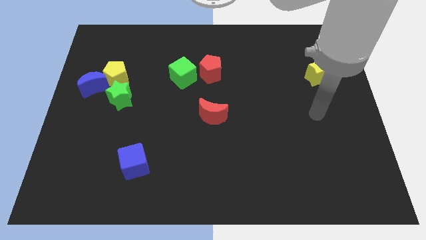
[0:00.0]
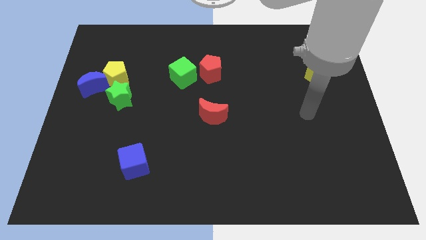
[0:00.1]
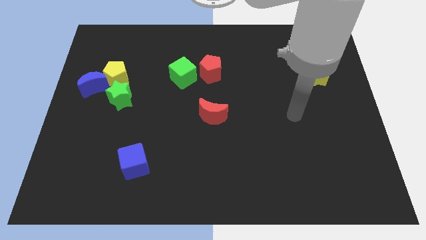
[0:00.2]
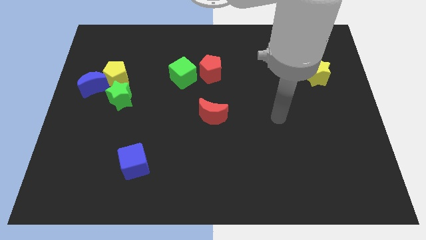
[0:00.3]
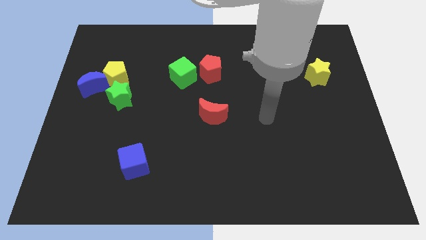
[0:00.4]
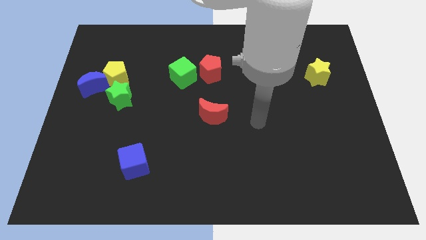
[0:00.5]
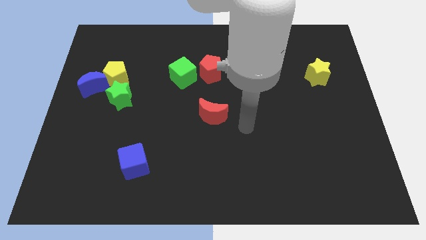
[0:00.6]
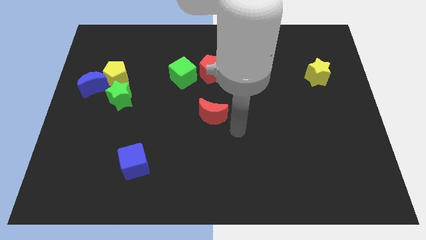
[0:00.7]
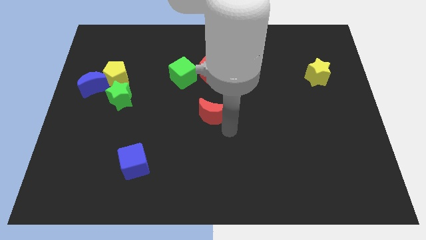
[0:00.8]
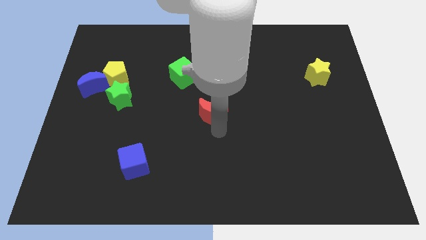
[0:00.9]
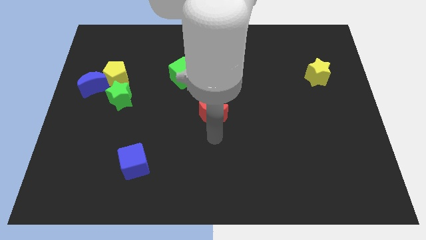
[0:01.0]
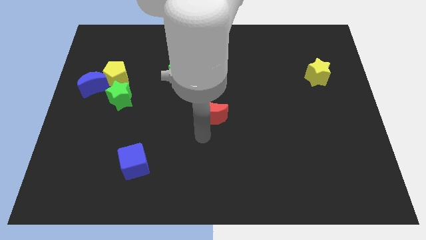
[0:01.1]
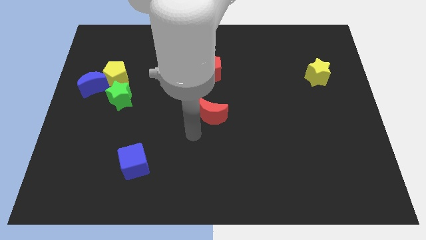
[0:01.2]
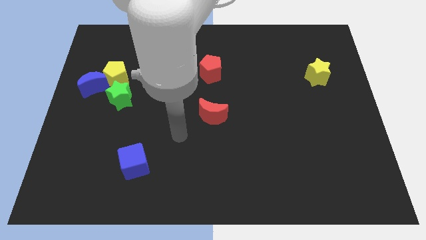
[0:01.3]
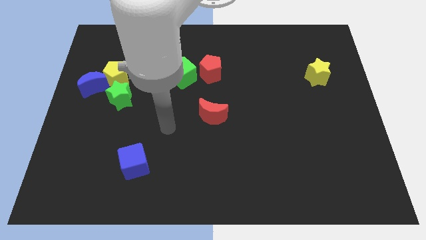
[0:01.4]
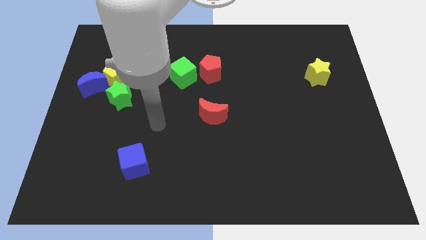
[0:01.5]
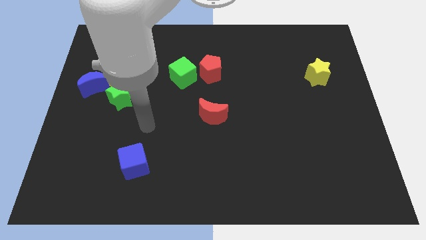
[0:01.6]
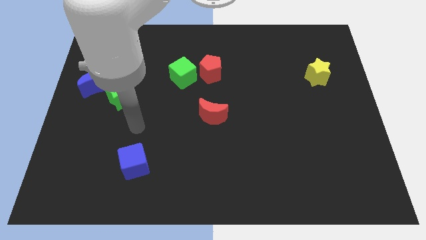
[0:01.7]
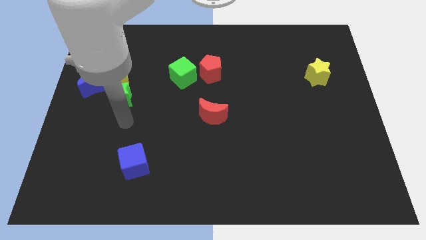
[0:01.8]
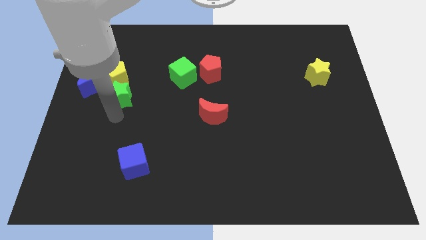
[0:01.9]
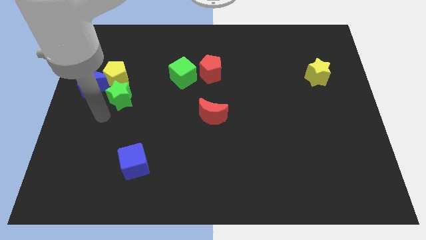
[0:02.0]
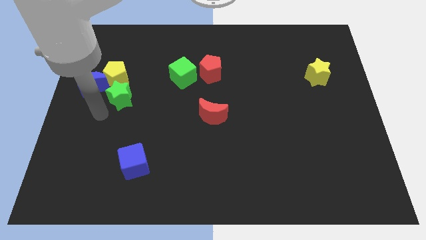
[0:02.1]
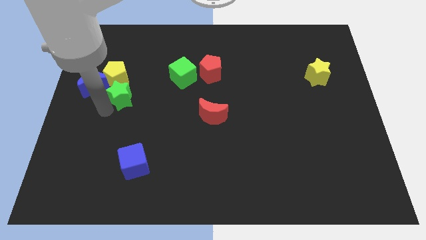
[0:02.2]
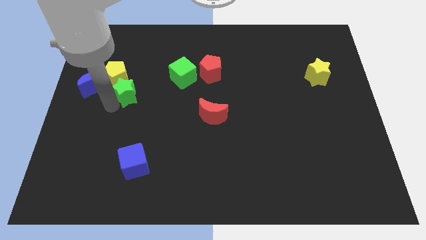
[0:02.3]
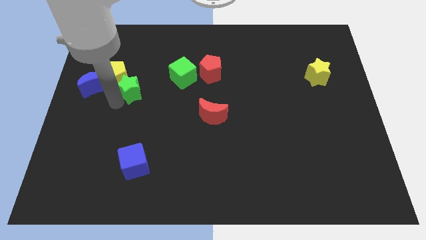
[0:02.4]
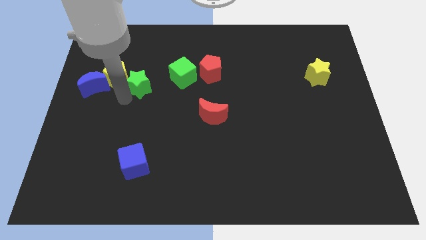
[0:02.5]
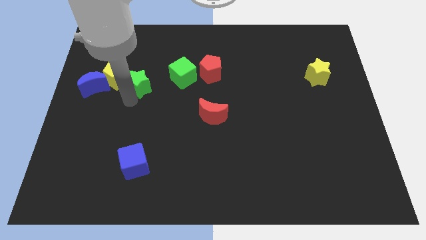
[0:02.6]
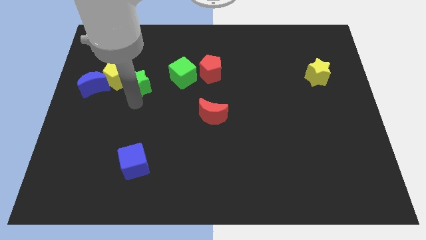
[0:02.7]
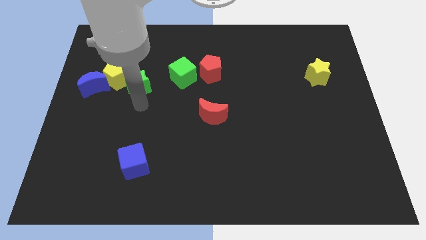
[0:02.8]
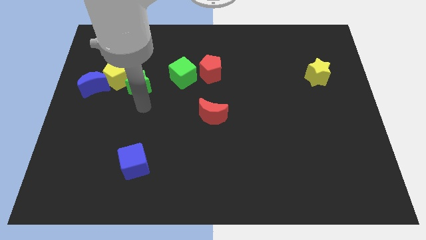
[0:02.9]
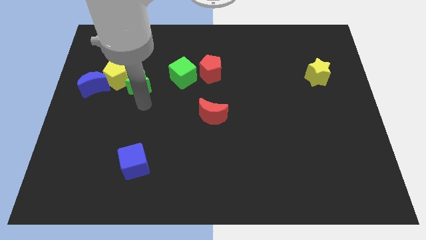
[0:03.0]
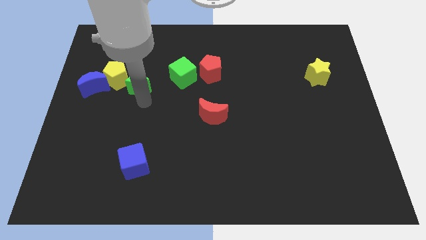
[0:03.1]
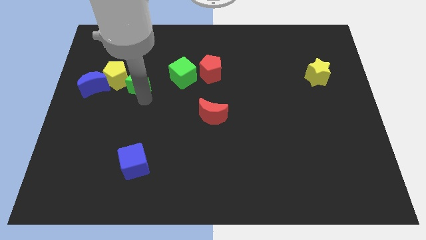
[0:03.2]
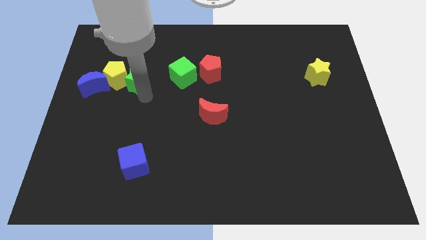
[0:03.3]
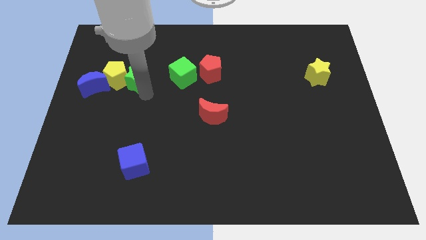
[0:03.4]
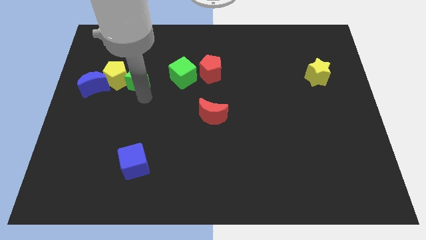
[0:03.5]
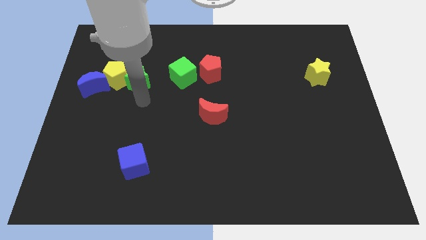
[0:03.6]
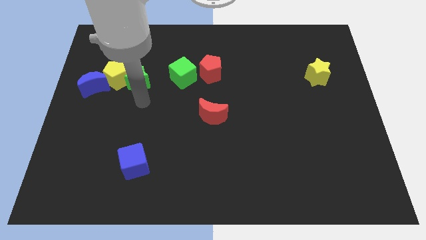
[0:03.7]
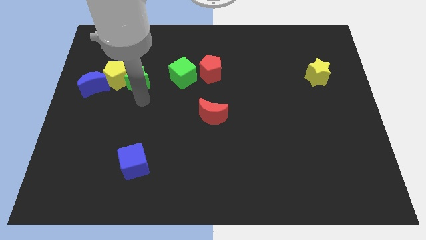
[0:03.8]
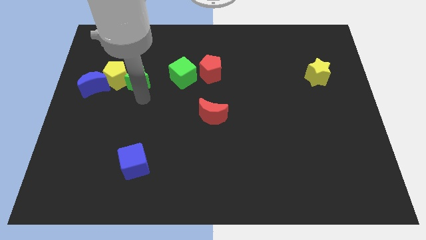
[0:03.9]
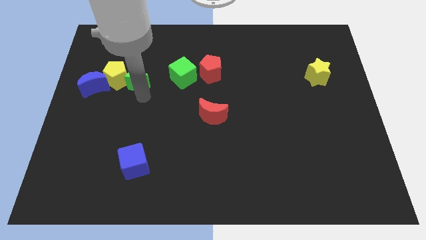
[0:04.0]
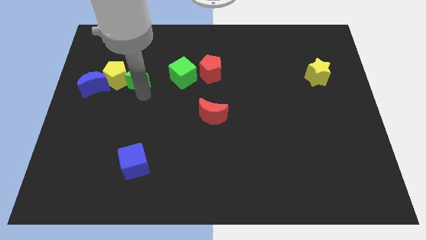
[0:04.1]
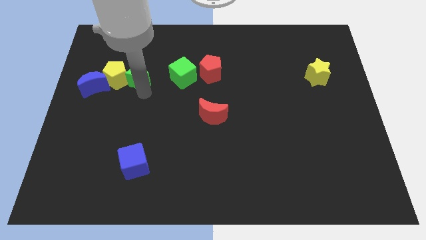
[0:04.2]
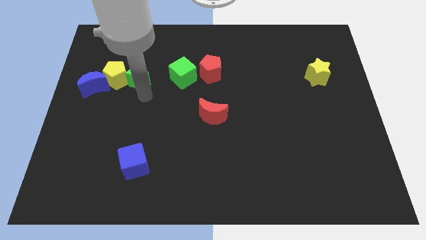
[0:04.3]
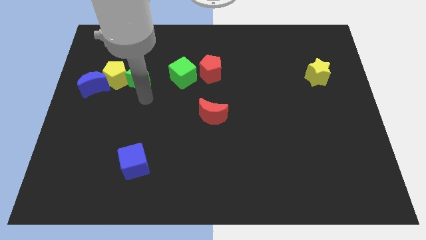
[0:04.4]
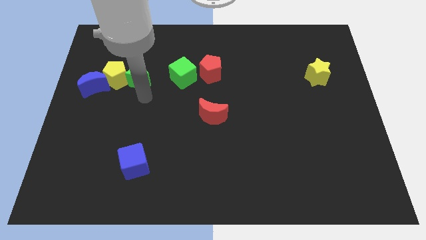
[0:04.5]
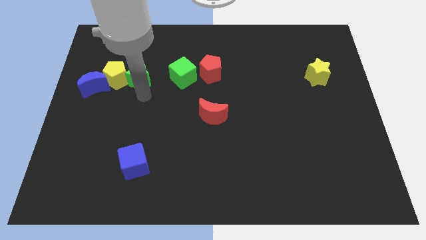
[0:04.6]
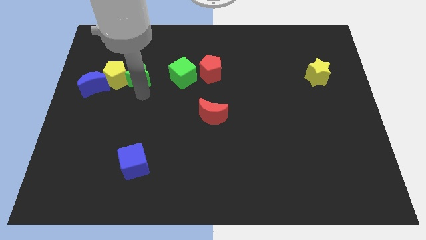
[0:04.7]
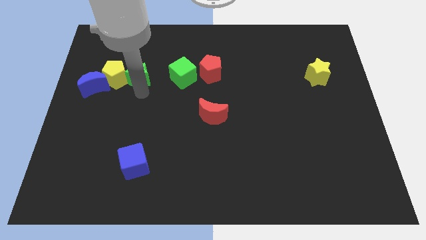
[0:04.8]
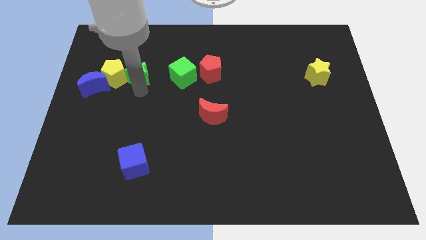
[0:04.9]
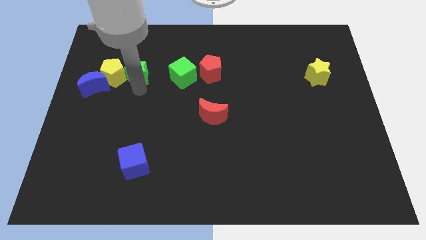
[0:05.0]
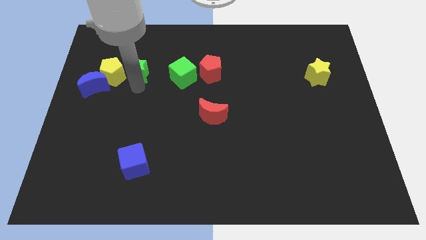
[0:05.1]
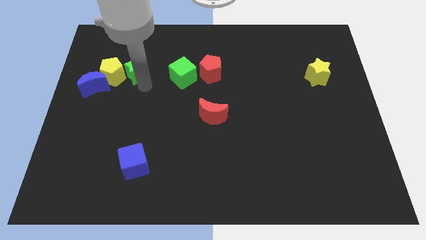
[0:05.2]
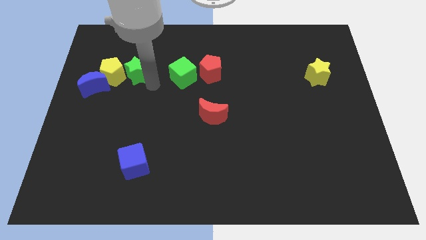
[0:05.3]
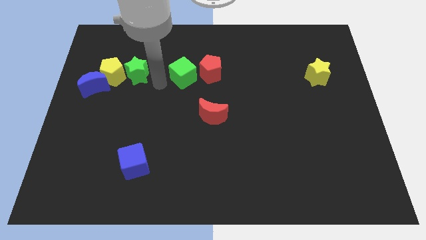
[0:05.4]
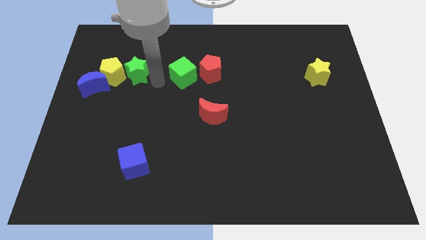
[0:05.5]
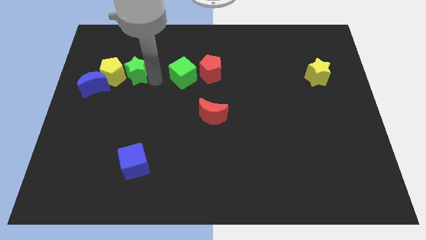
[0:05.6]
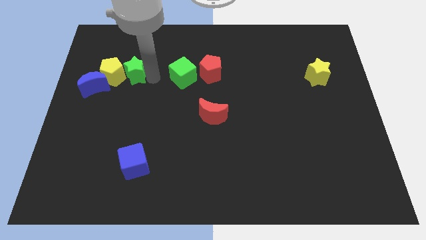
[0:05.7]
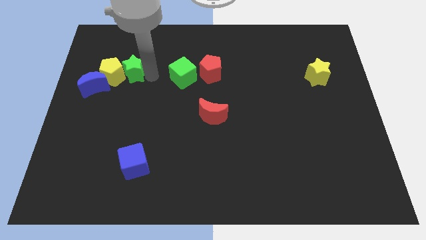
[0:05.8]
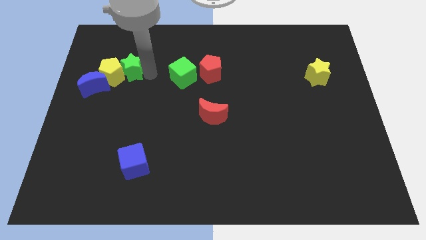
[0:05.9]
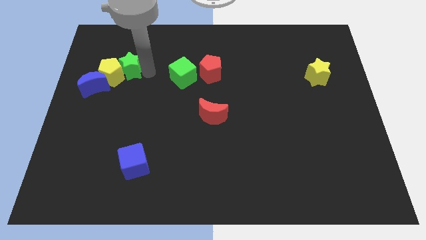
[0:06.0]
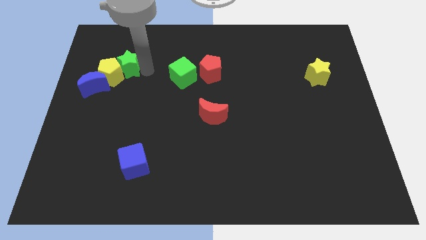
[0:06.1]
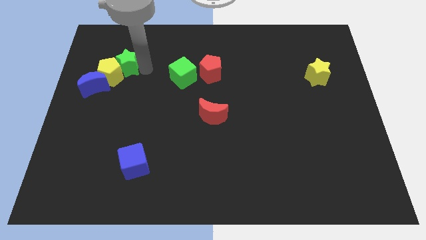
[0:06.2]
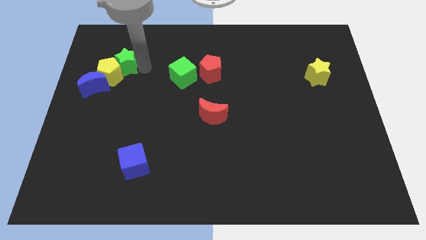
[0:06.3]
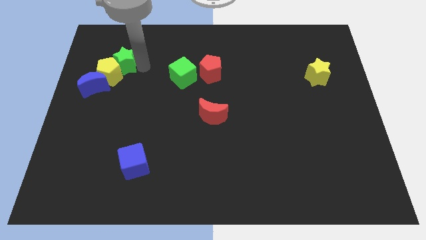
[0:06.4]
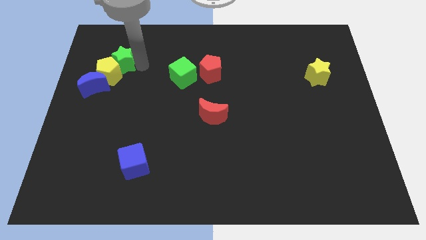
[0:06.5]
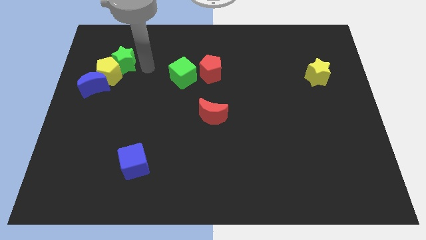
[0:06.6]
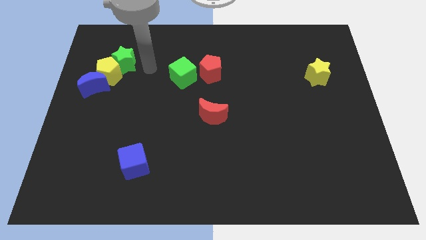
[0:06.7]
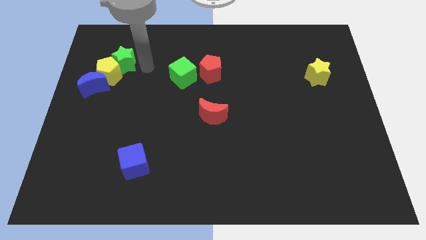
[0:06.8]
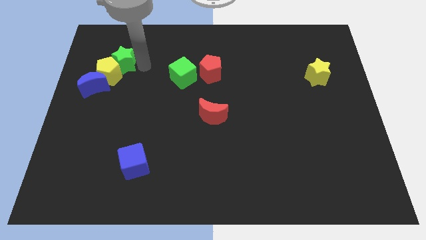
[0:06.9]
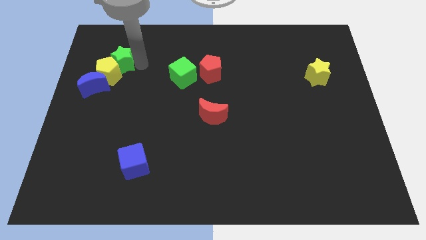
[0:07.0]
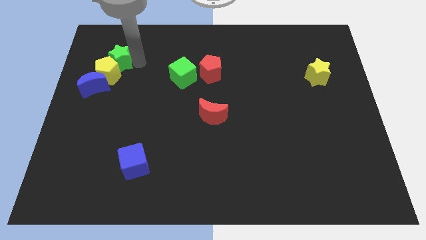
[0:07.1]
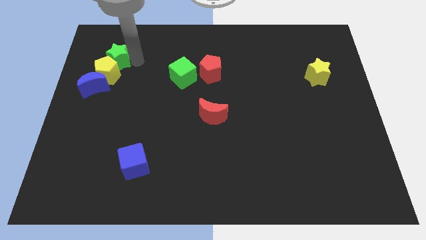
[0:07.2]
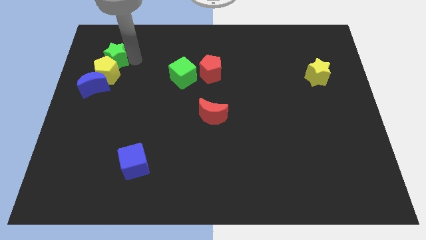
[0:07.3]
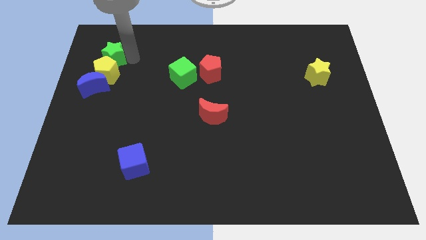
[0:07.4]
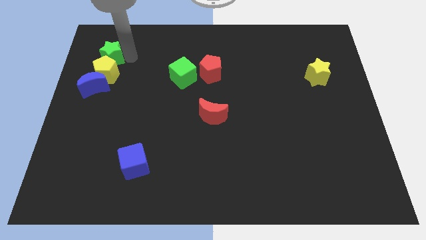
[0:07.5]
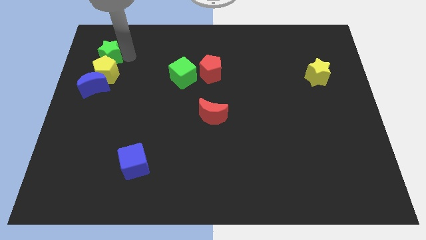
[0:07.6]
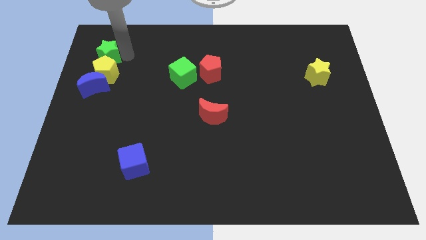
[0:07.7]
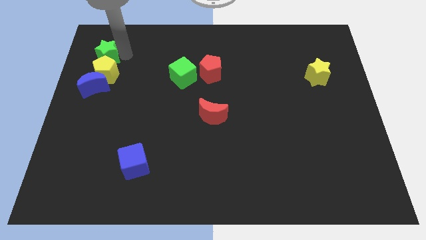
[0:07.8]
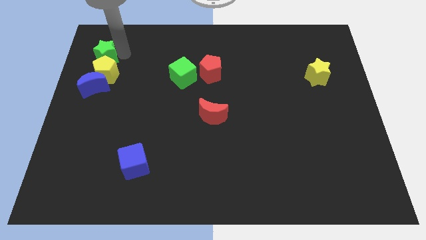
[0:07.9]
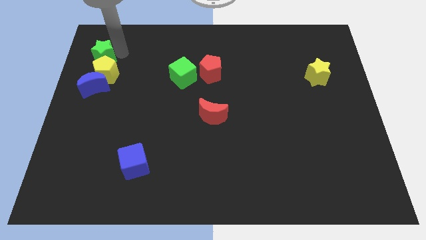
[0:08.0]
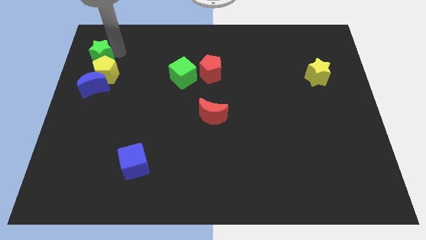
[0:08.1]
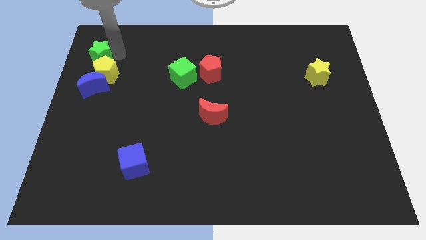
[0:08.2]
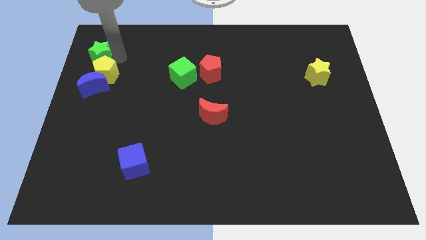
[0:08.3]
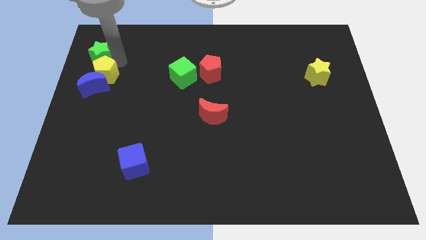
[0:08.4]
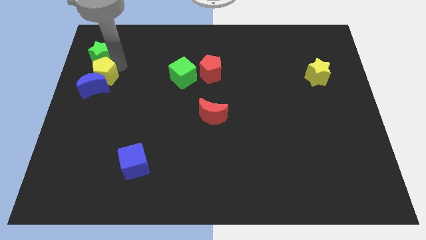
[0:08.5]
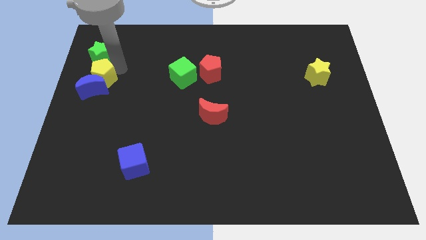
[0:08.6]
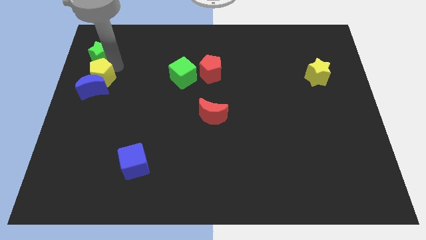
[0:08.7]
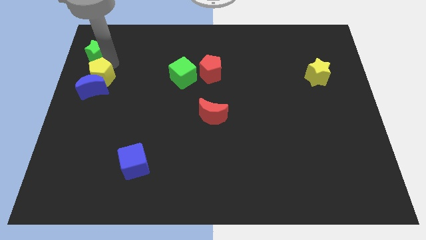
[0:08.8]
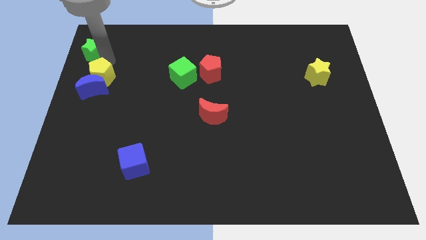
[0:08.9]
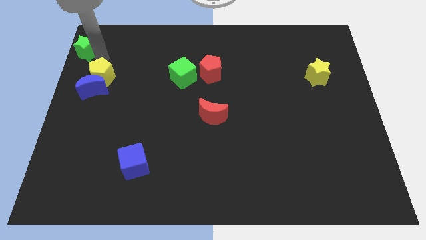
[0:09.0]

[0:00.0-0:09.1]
put the green star to the top left
